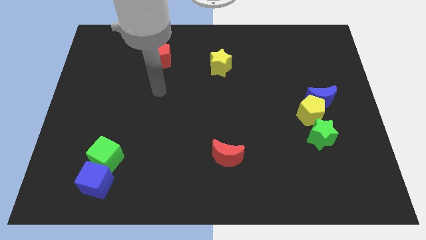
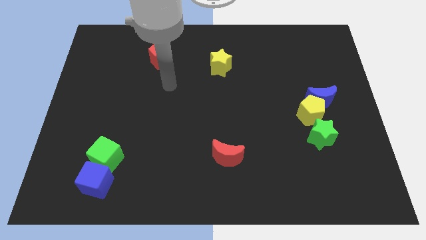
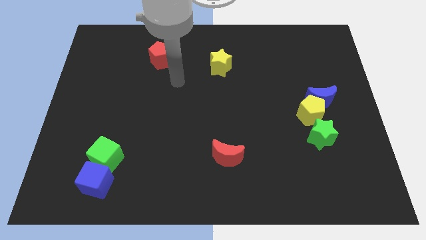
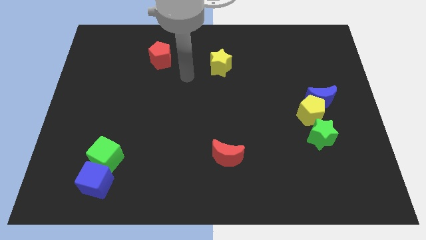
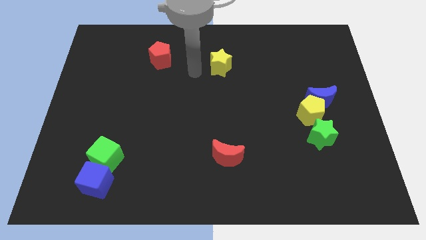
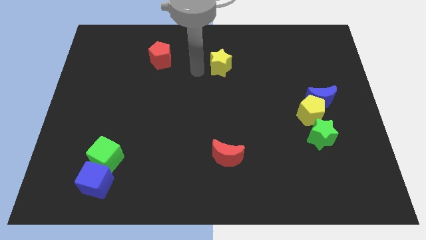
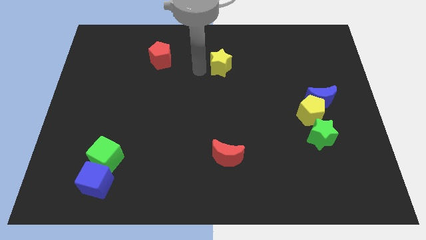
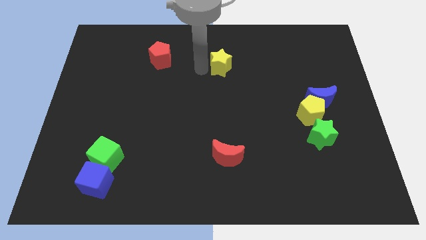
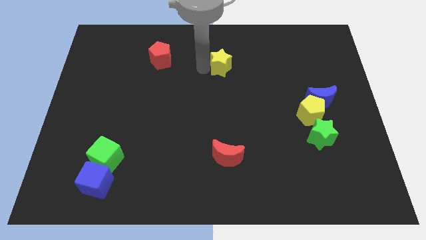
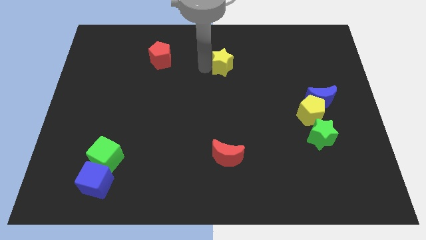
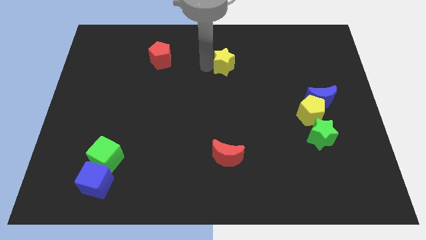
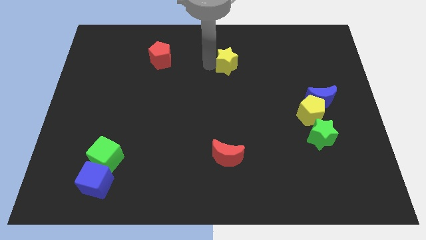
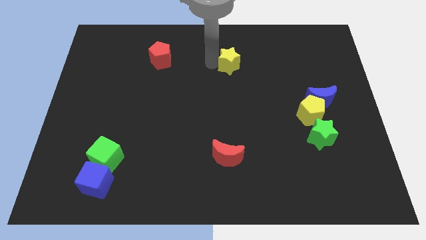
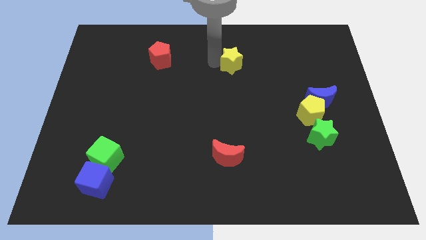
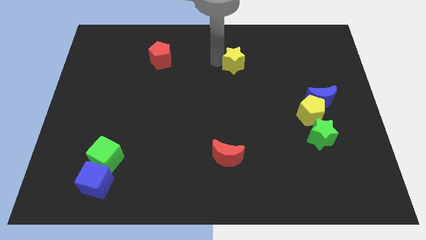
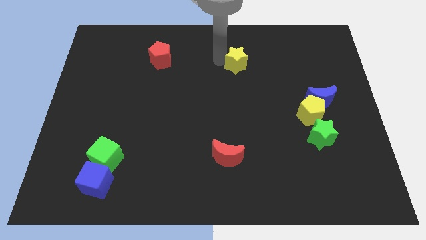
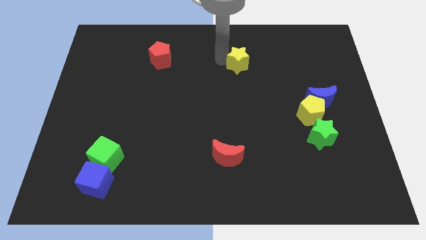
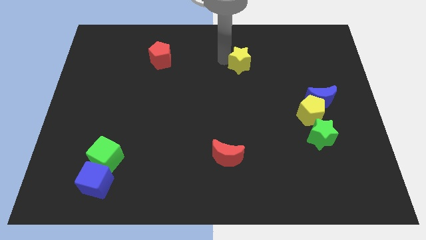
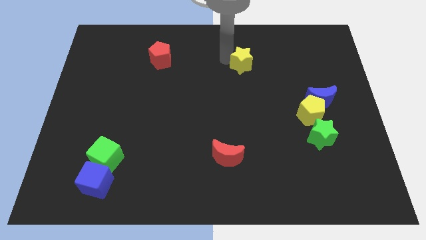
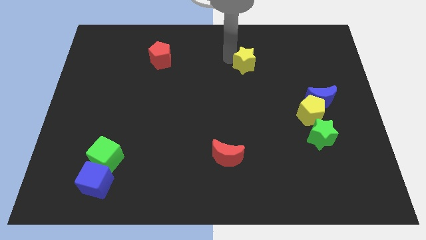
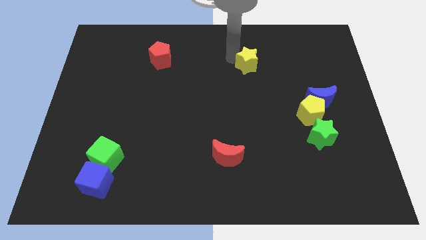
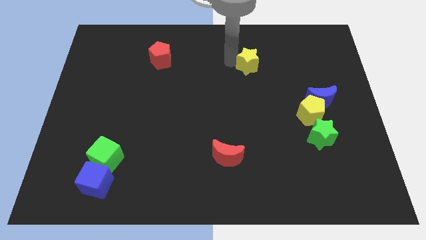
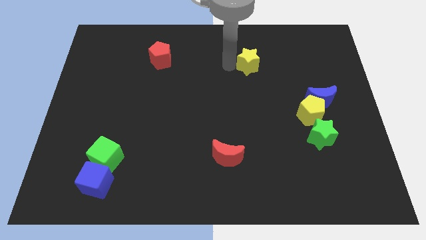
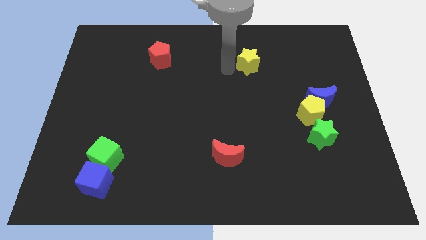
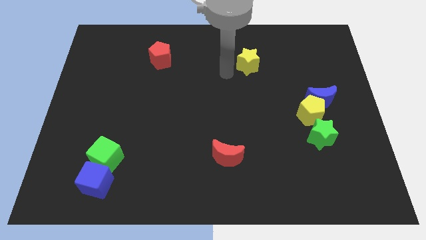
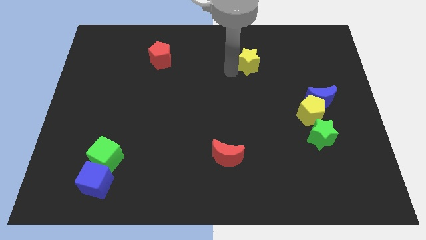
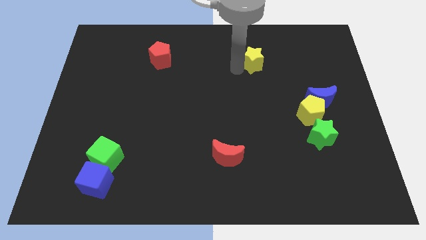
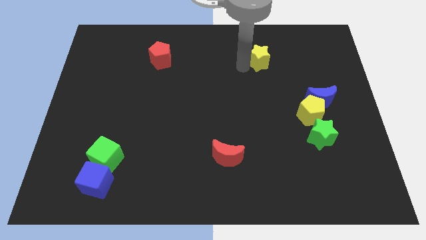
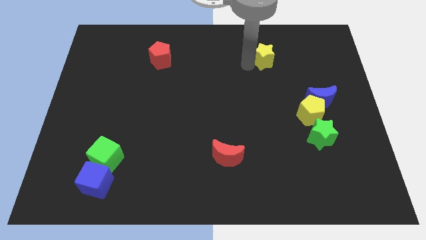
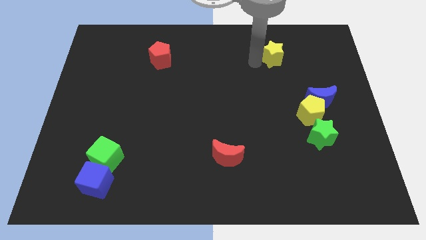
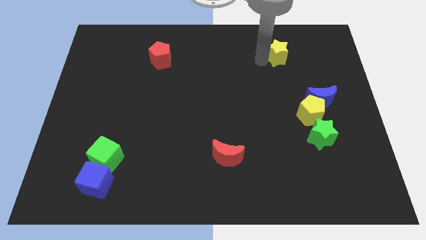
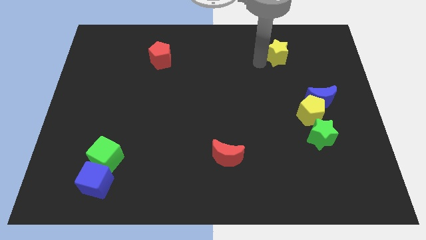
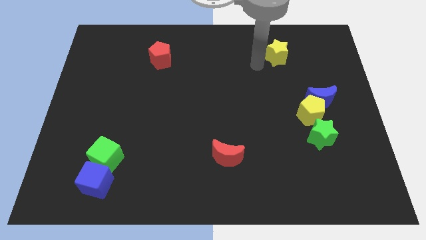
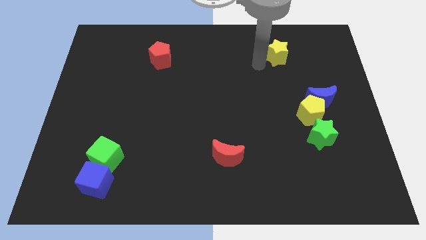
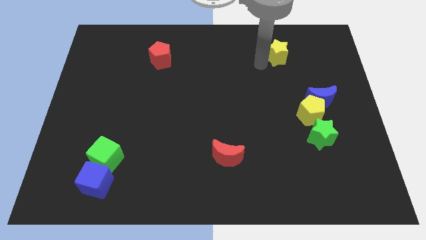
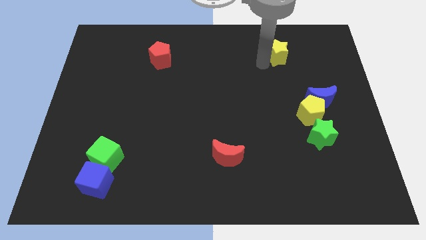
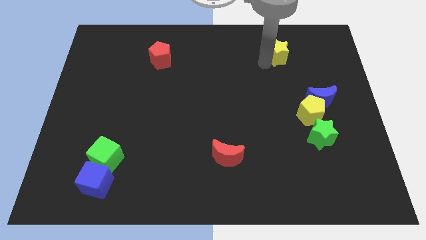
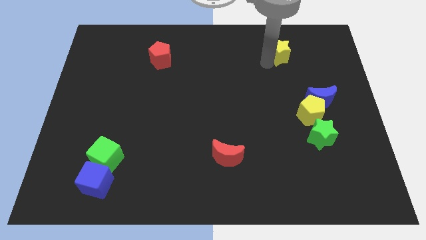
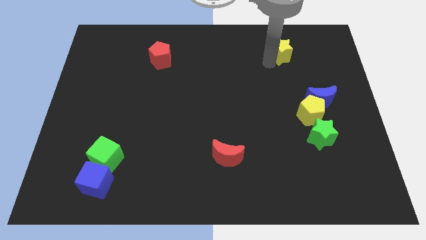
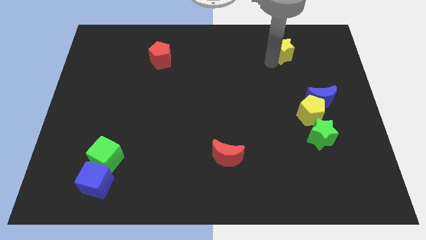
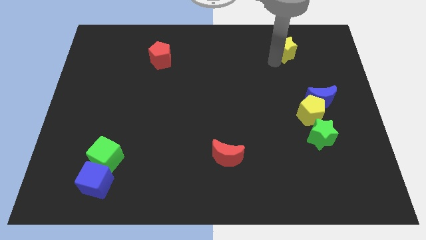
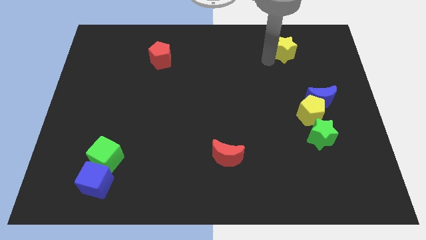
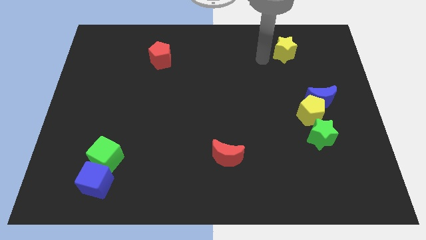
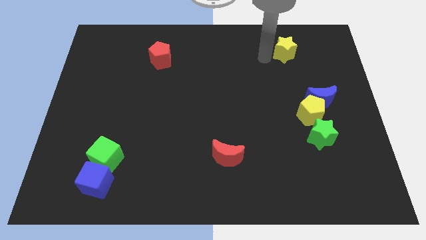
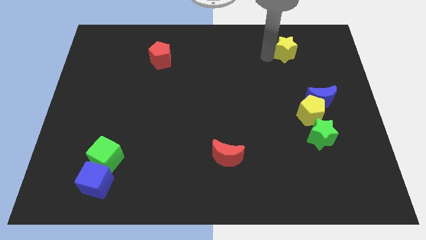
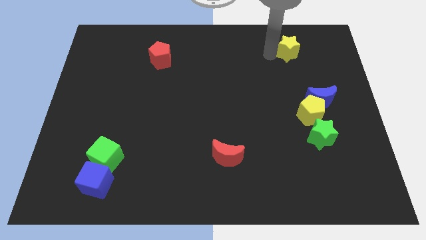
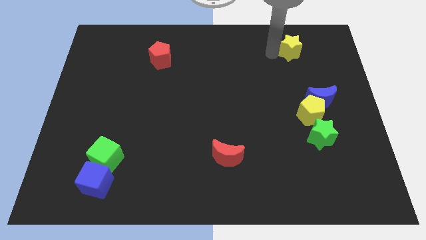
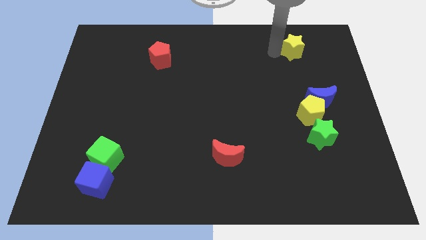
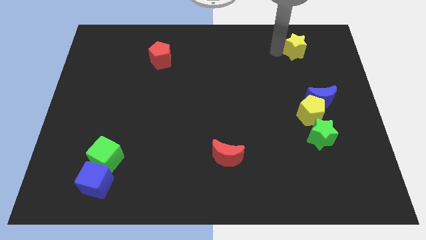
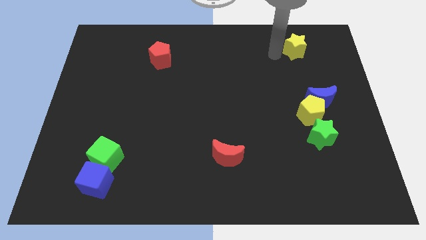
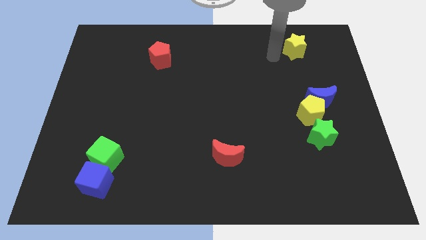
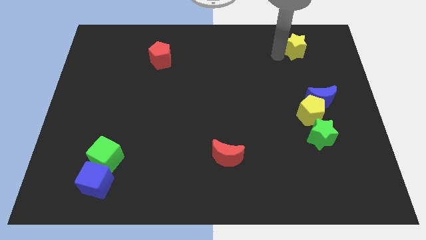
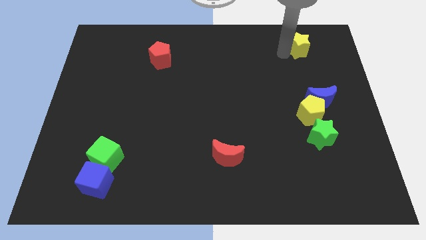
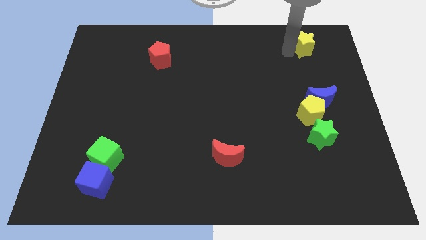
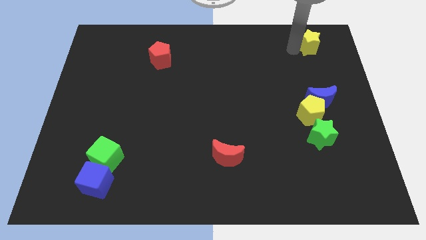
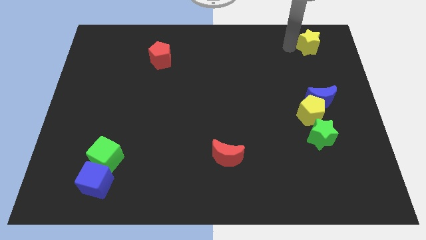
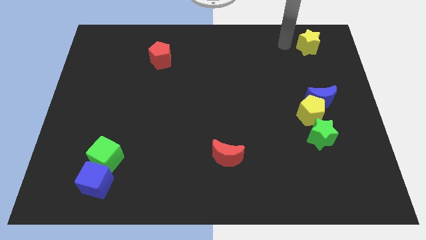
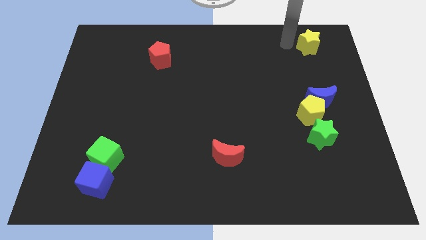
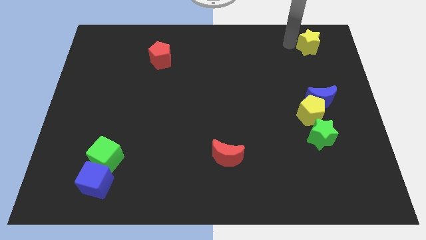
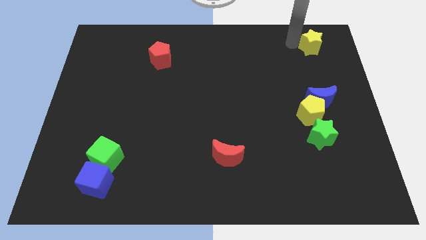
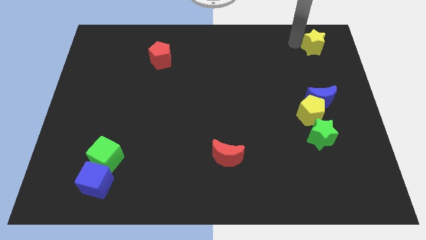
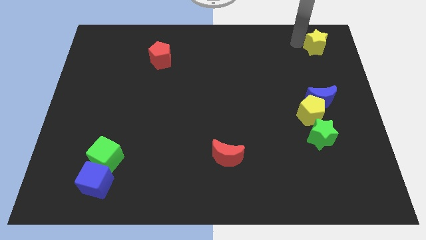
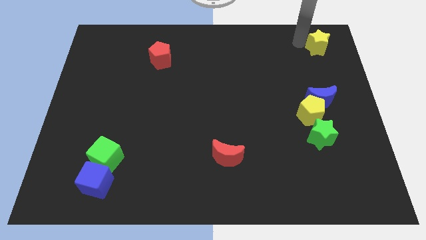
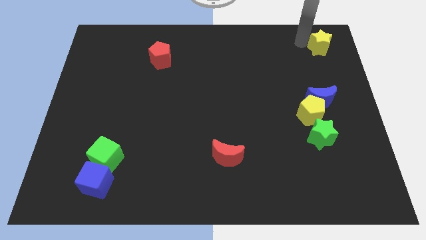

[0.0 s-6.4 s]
slide the yellow star to the top right corner

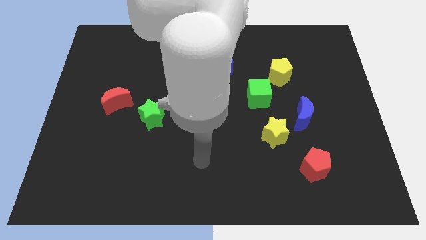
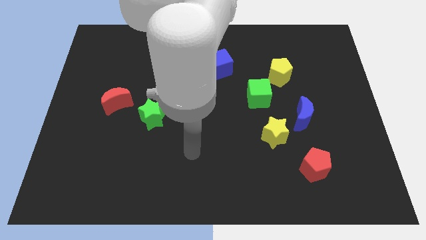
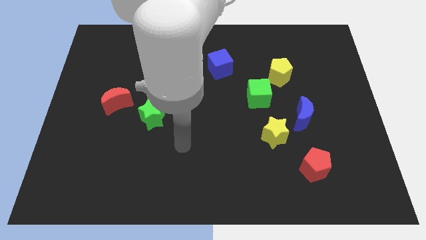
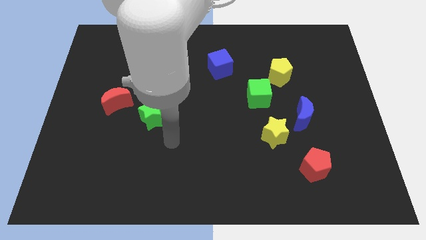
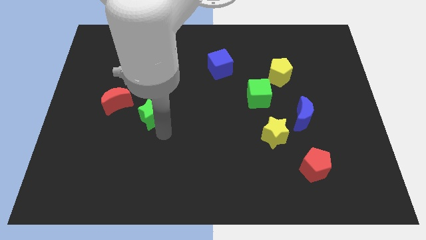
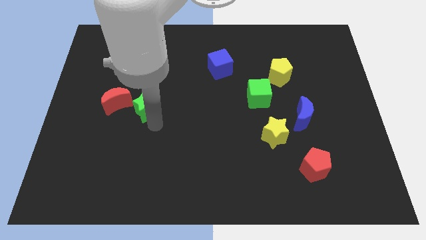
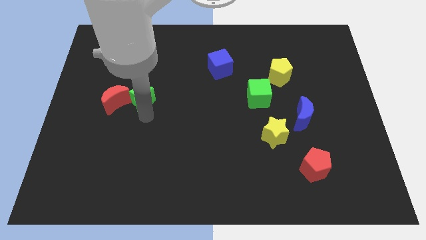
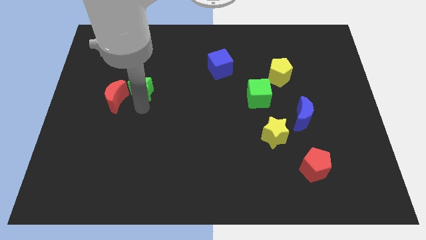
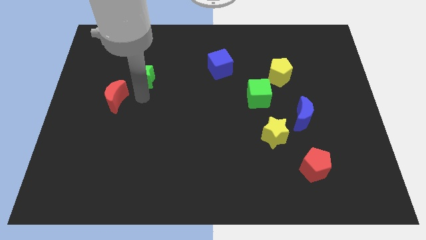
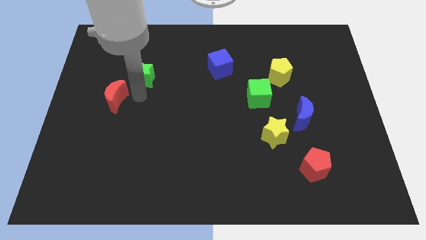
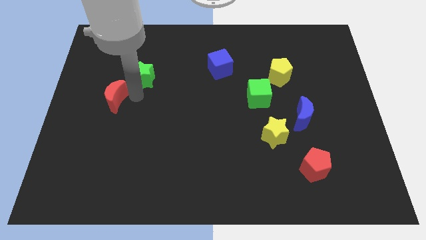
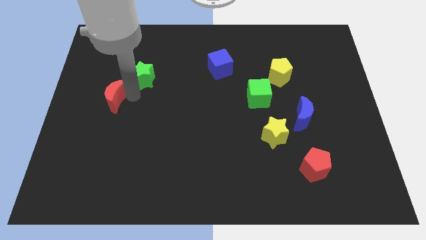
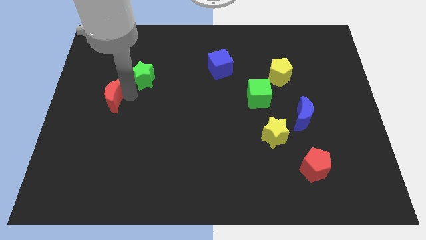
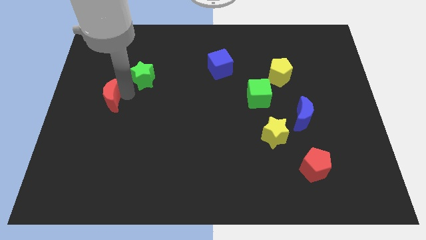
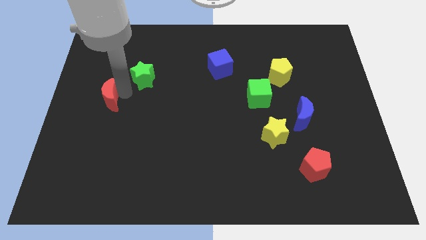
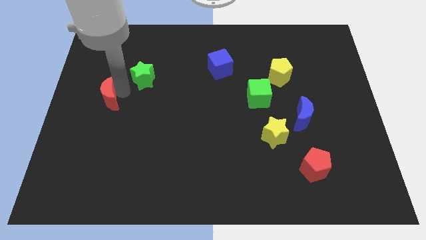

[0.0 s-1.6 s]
put the red moon to the left side
